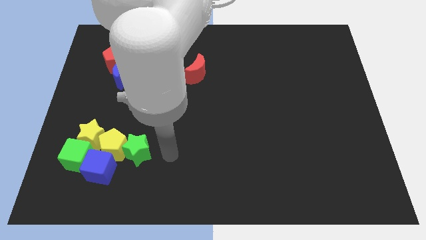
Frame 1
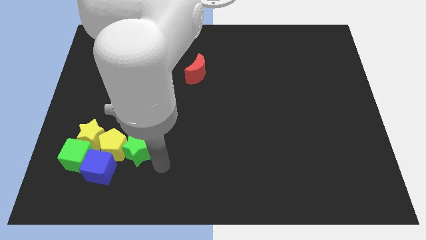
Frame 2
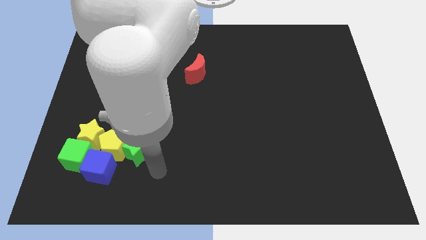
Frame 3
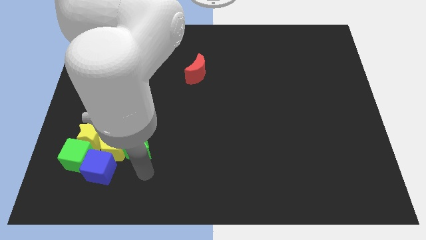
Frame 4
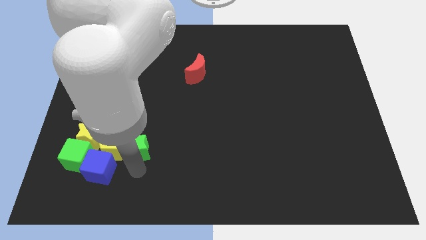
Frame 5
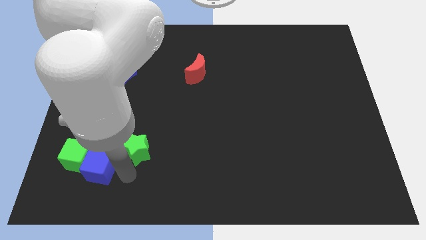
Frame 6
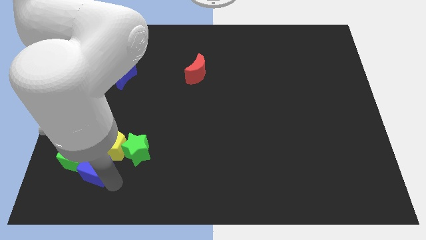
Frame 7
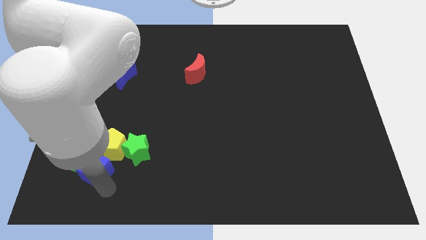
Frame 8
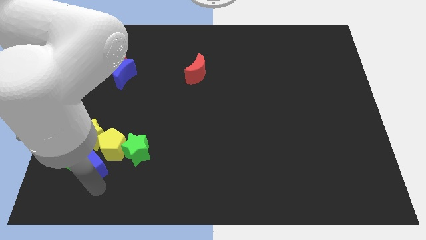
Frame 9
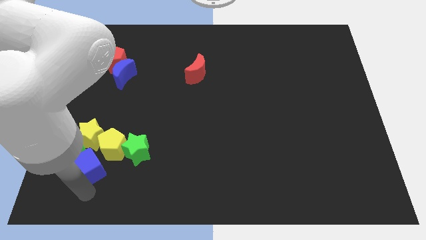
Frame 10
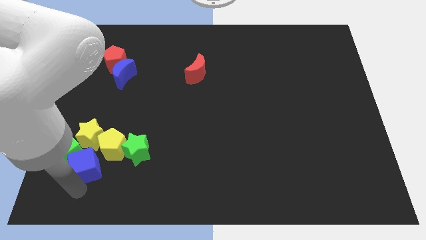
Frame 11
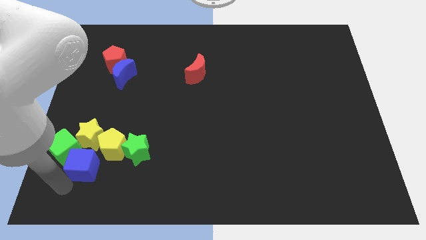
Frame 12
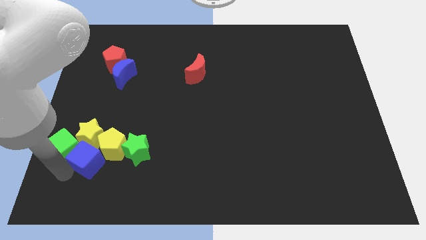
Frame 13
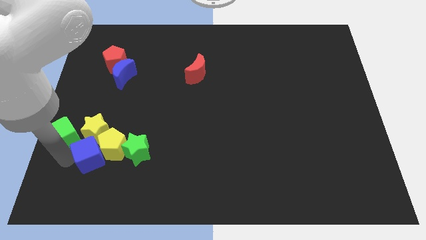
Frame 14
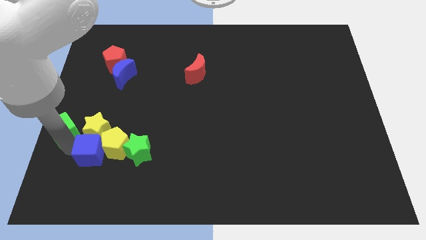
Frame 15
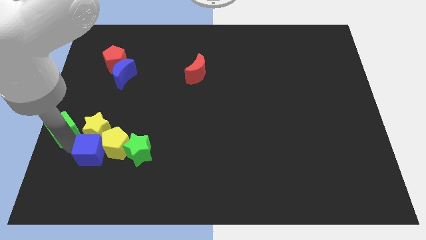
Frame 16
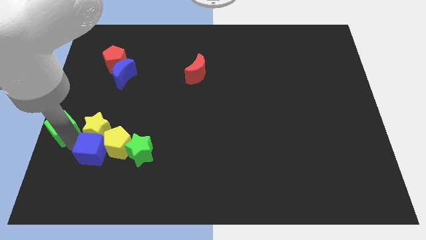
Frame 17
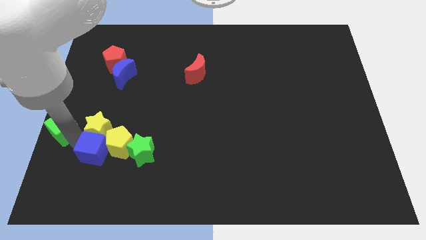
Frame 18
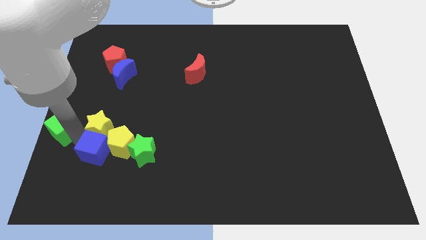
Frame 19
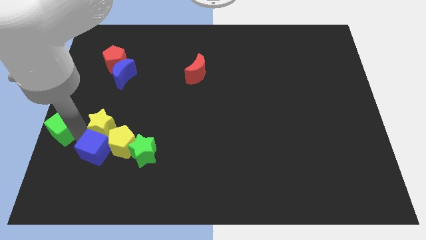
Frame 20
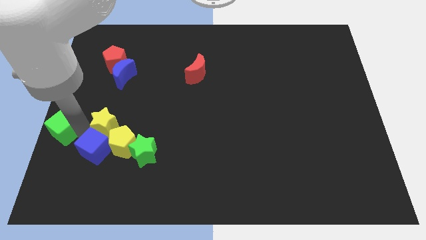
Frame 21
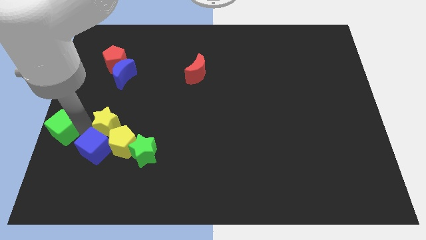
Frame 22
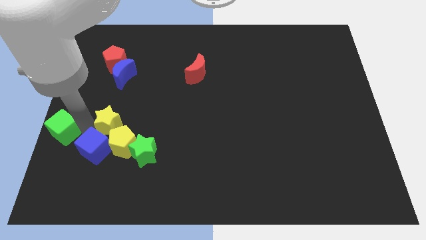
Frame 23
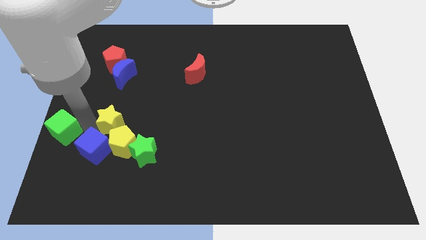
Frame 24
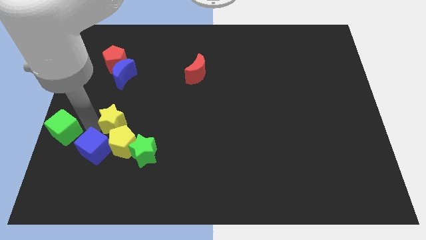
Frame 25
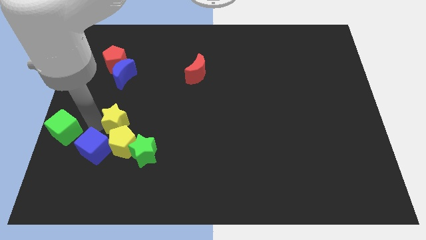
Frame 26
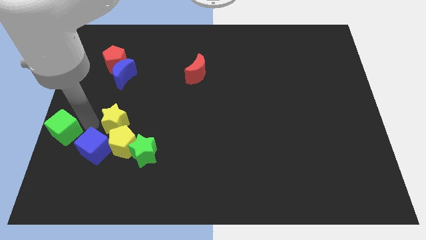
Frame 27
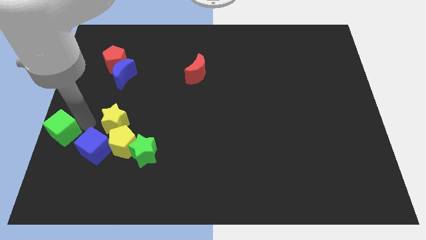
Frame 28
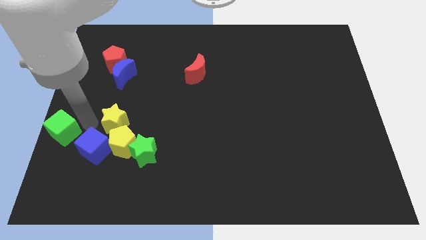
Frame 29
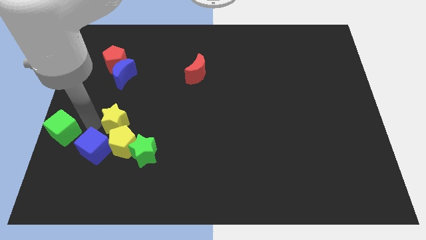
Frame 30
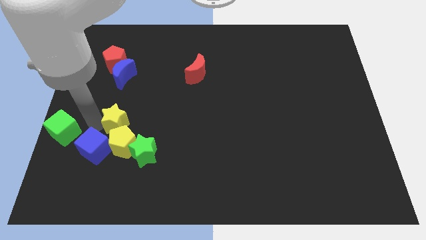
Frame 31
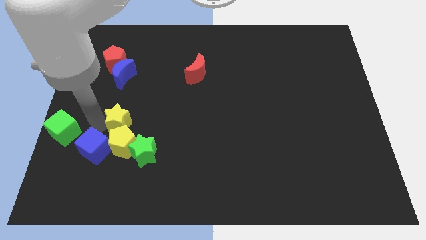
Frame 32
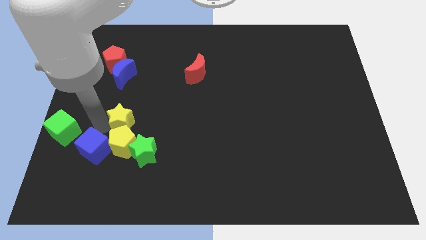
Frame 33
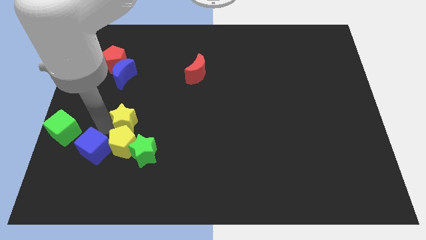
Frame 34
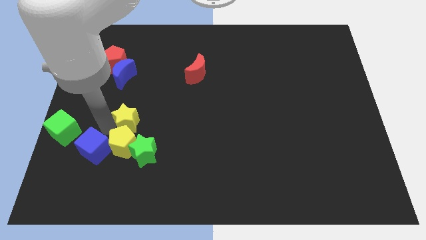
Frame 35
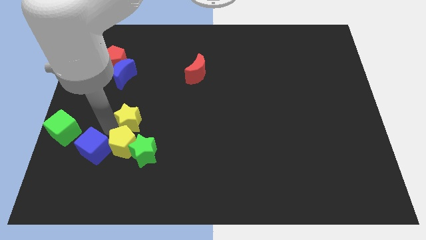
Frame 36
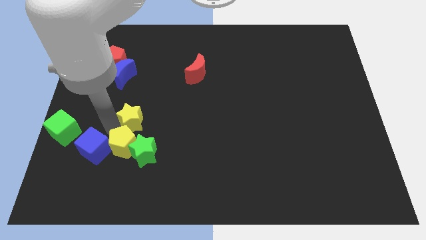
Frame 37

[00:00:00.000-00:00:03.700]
slightly push the yellow star to the right

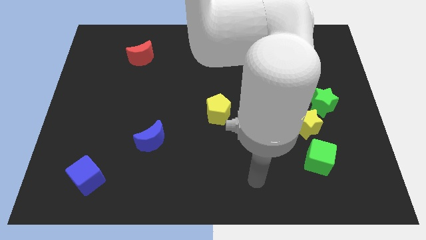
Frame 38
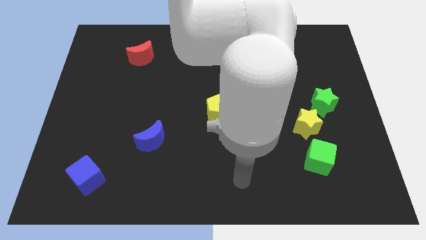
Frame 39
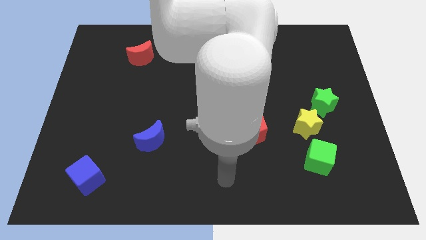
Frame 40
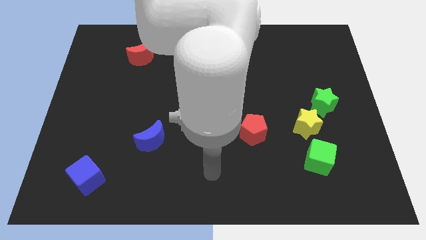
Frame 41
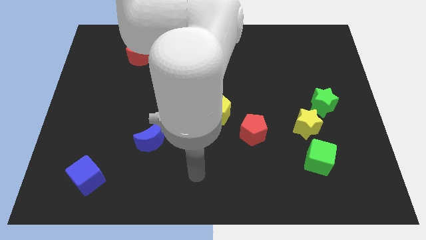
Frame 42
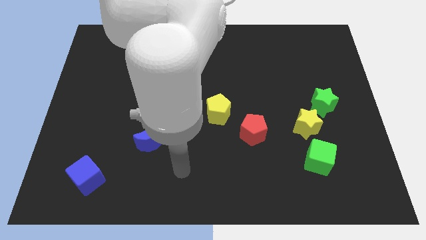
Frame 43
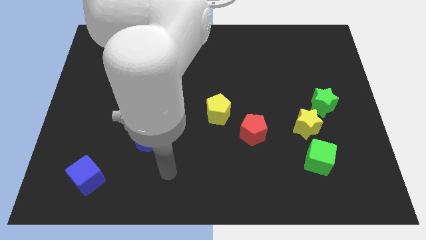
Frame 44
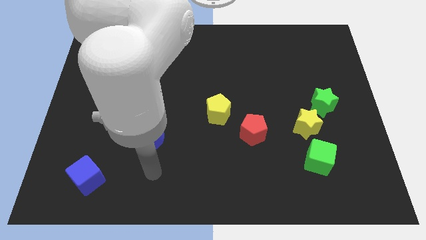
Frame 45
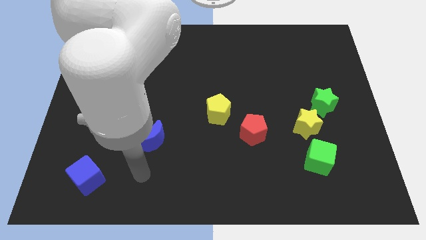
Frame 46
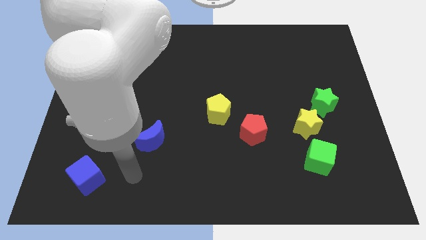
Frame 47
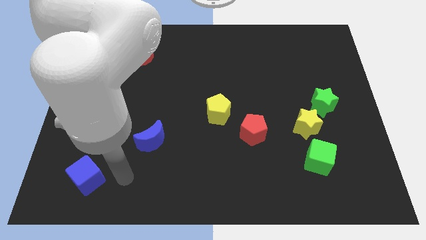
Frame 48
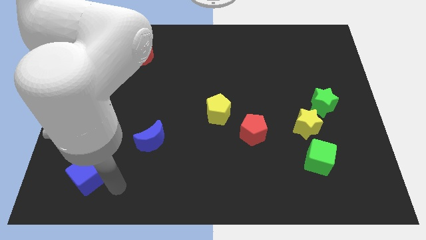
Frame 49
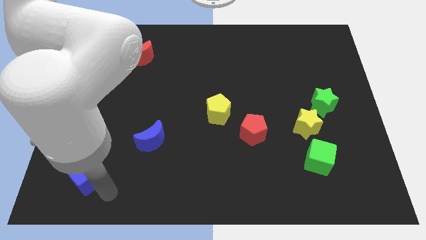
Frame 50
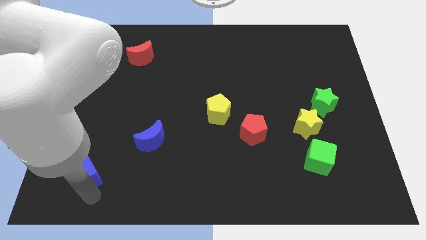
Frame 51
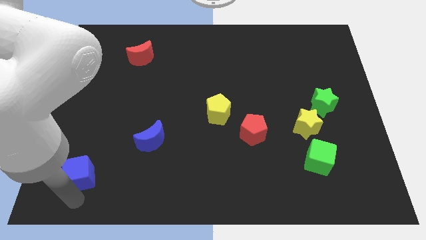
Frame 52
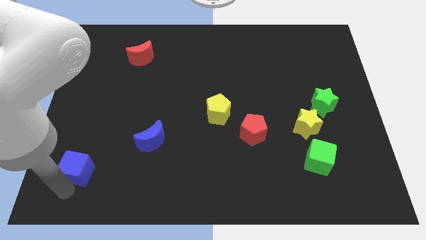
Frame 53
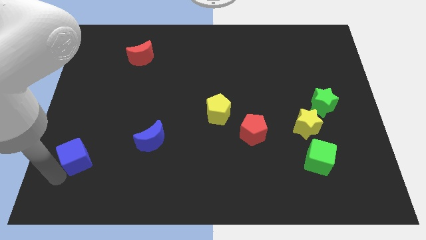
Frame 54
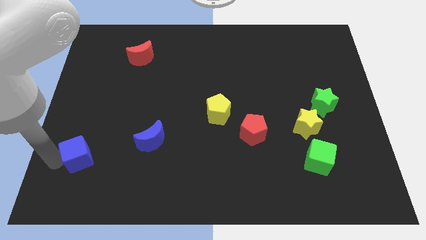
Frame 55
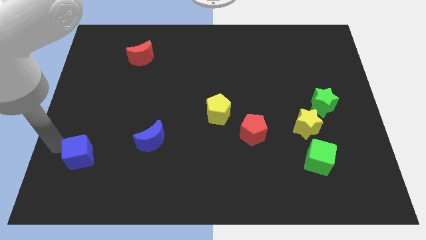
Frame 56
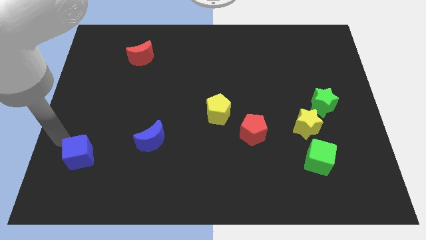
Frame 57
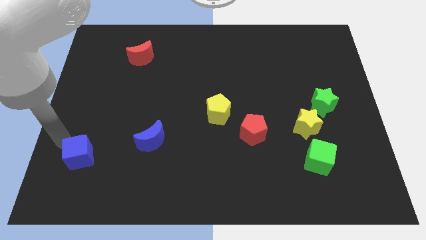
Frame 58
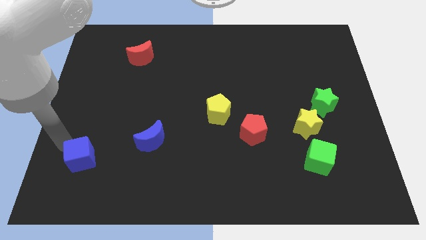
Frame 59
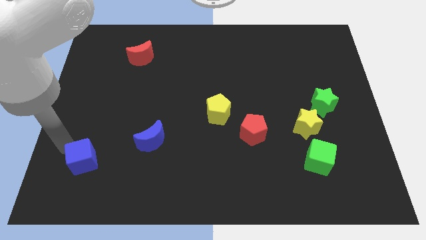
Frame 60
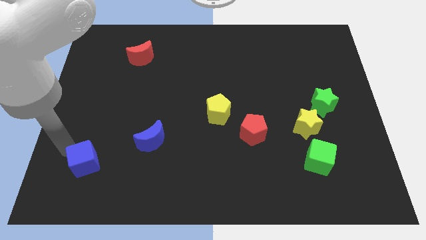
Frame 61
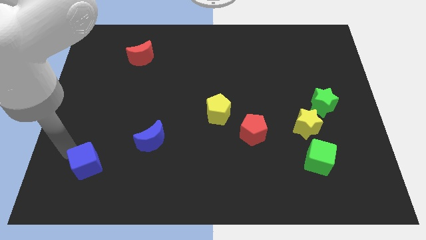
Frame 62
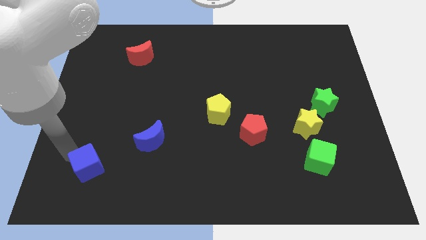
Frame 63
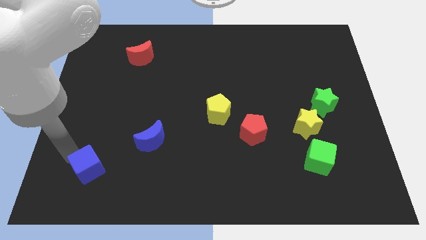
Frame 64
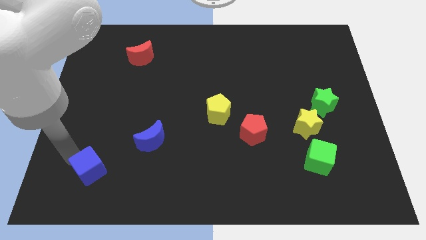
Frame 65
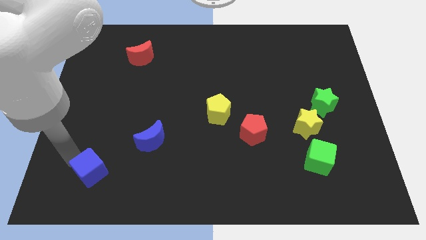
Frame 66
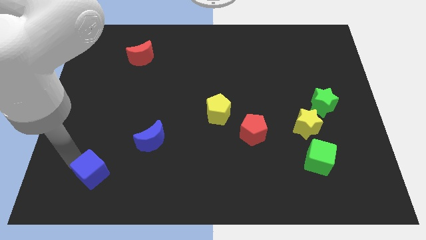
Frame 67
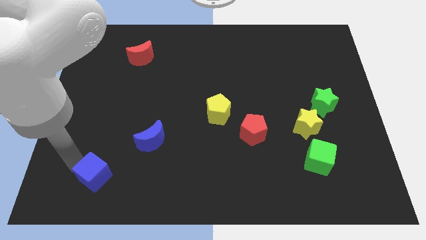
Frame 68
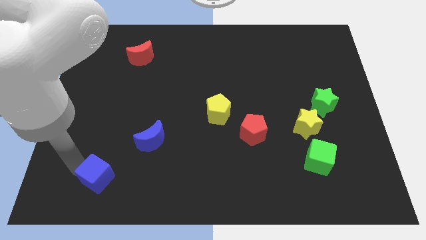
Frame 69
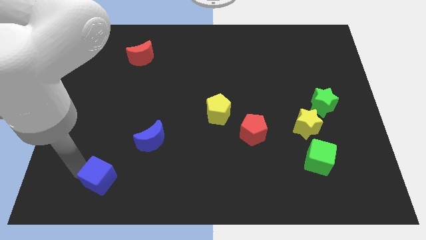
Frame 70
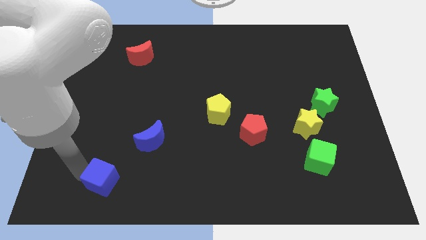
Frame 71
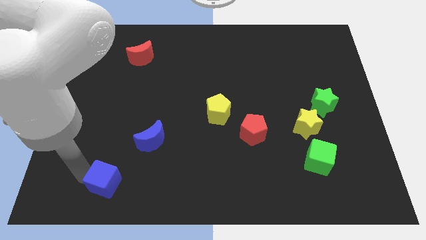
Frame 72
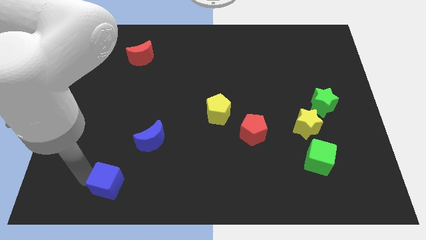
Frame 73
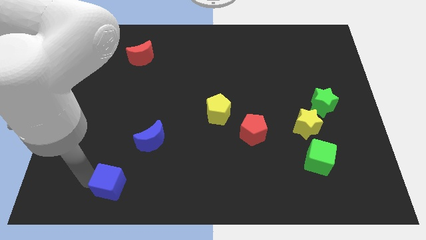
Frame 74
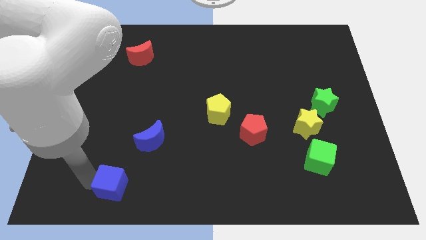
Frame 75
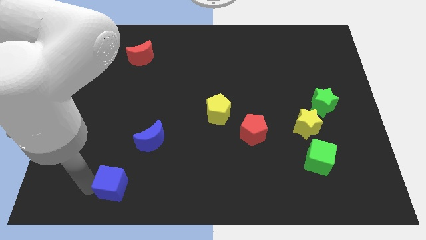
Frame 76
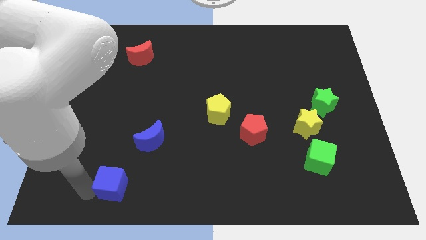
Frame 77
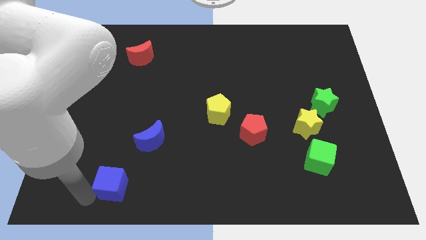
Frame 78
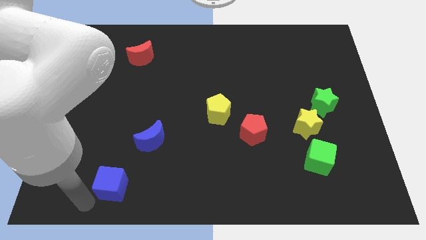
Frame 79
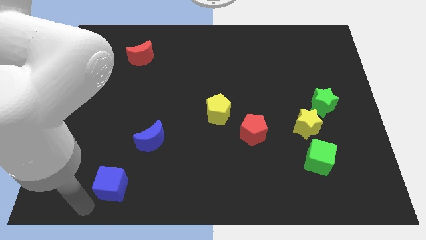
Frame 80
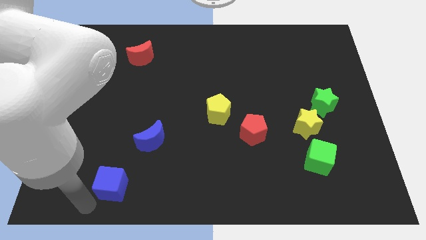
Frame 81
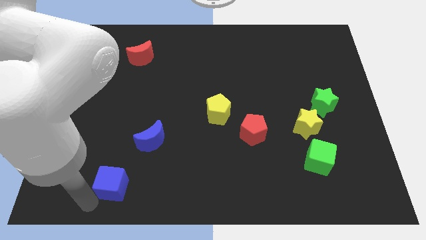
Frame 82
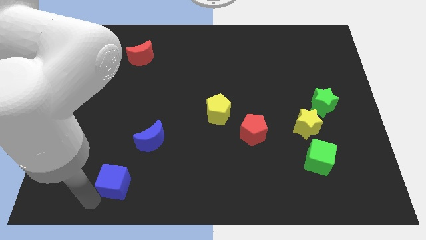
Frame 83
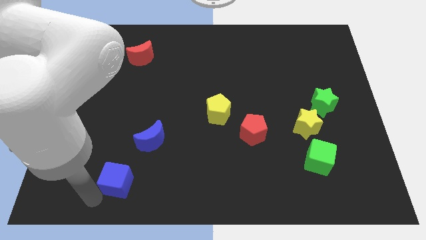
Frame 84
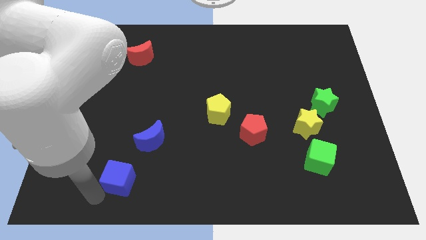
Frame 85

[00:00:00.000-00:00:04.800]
move the blue cube right somewhat
